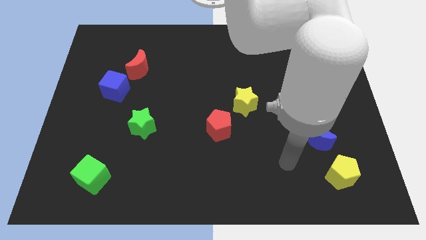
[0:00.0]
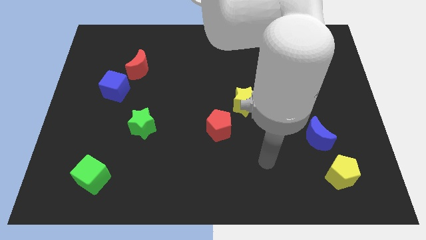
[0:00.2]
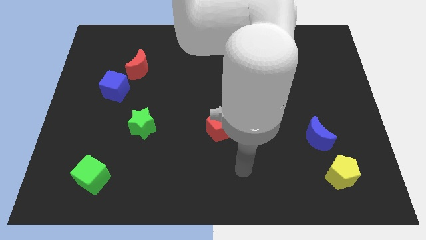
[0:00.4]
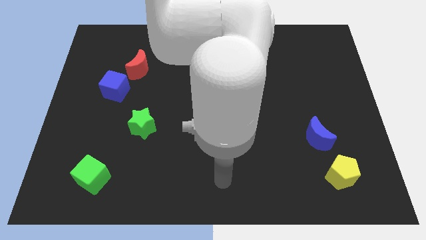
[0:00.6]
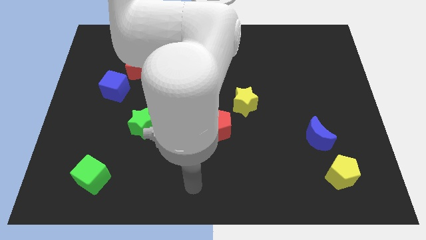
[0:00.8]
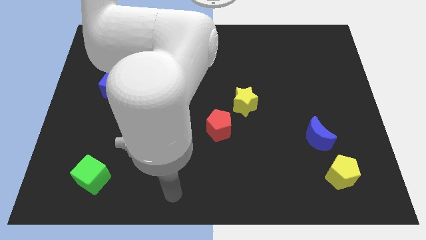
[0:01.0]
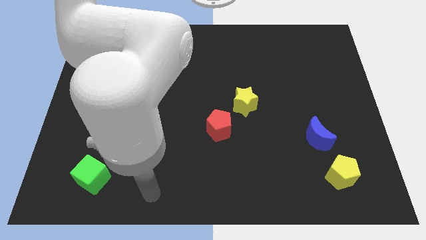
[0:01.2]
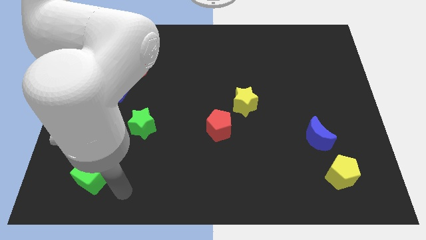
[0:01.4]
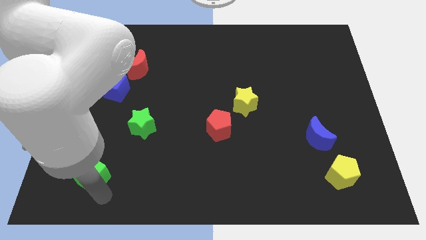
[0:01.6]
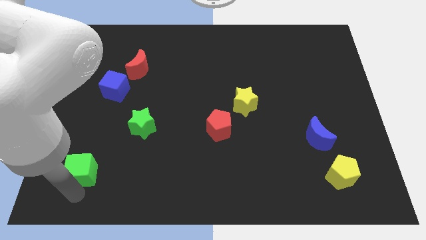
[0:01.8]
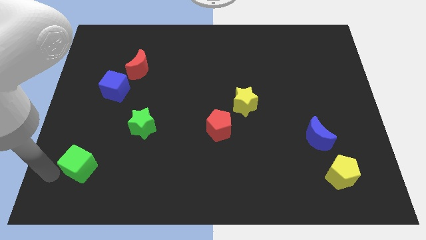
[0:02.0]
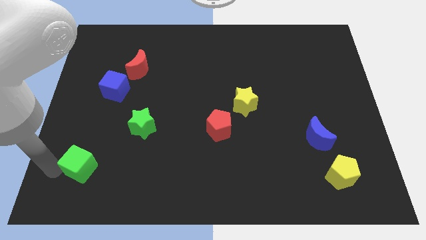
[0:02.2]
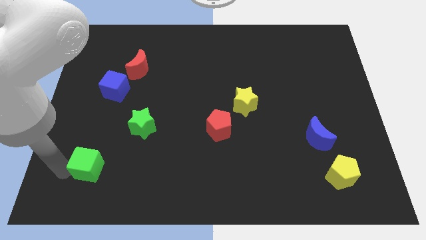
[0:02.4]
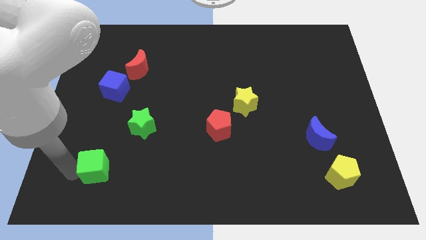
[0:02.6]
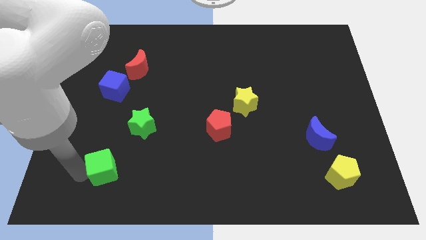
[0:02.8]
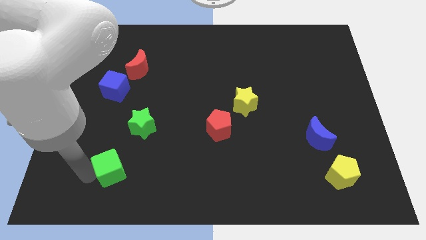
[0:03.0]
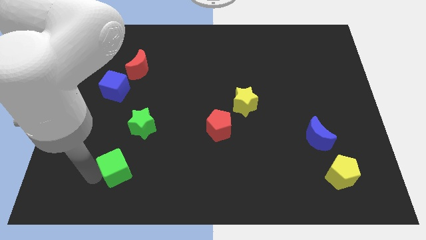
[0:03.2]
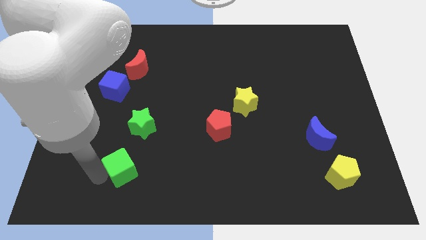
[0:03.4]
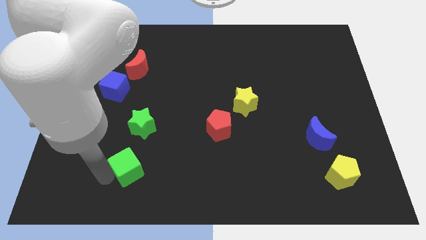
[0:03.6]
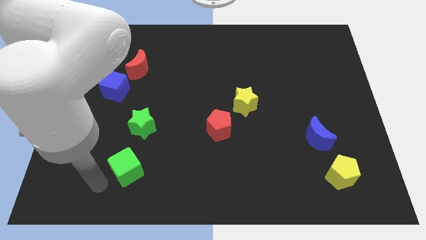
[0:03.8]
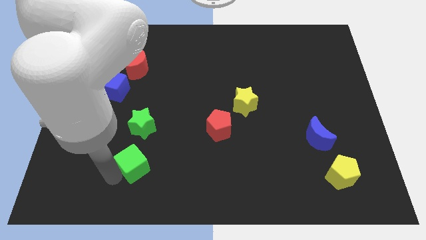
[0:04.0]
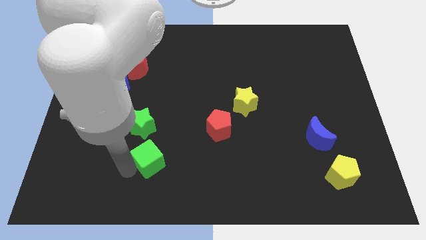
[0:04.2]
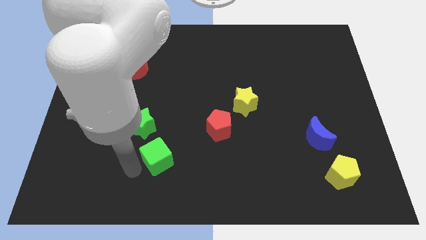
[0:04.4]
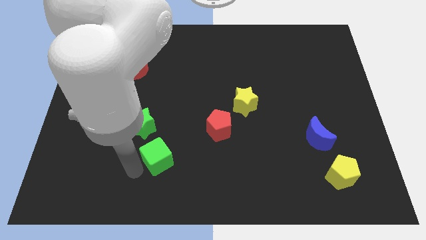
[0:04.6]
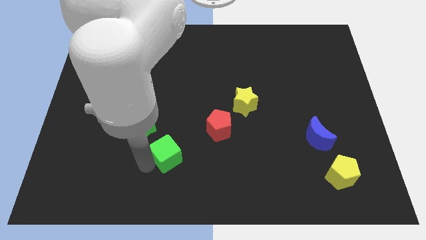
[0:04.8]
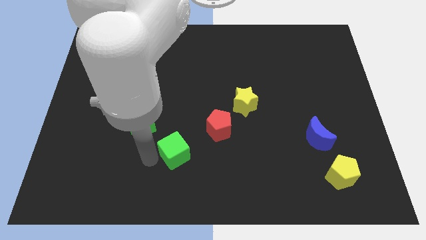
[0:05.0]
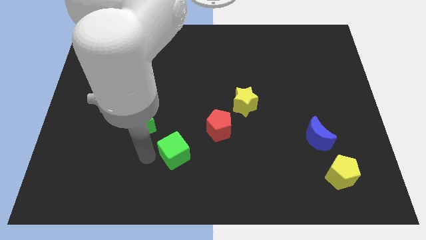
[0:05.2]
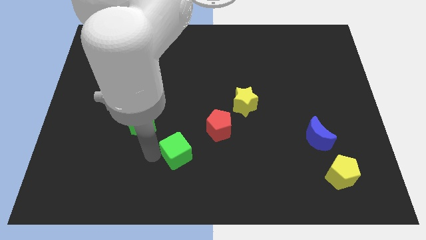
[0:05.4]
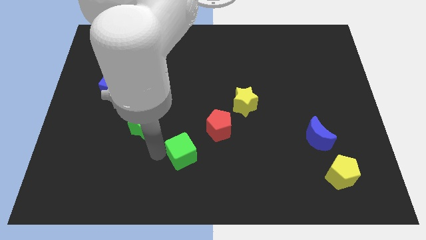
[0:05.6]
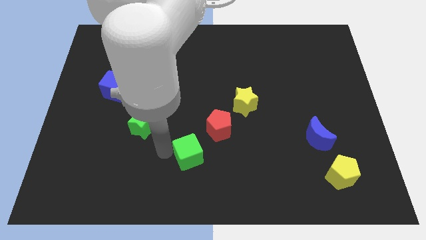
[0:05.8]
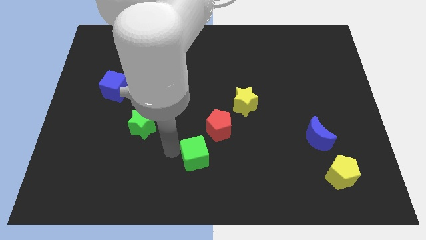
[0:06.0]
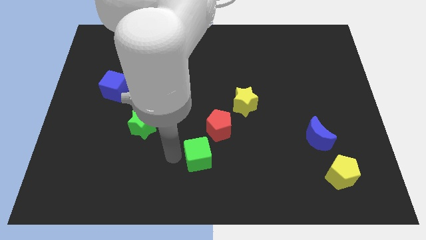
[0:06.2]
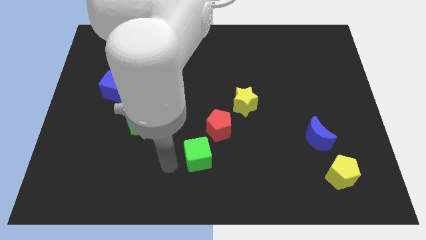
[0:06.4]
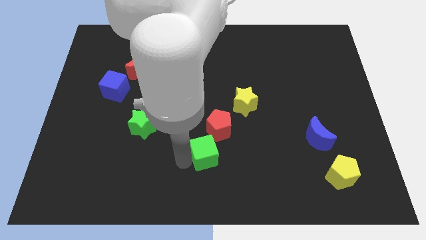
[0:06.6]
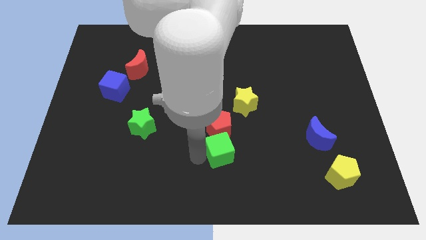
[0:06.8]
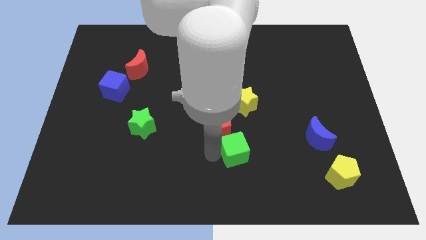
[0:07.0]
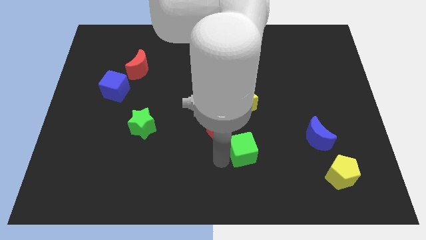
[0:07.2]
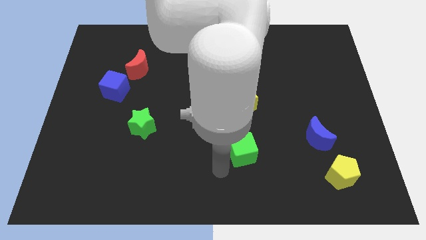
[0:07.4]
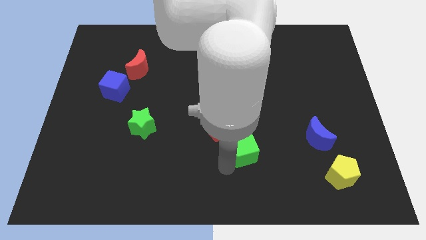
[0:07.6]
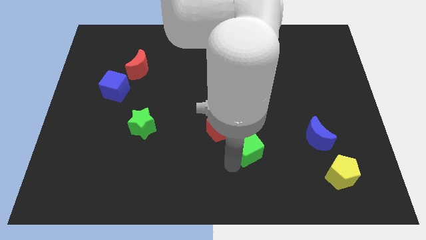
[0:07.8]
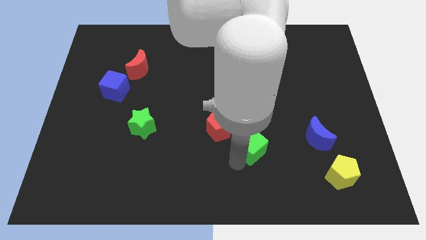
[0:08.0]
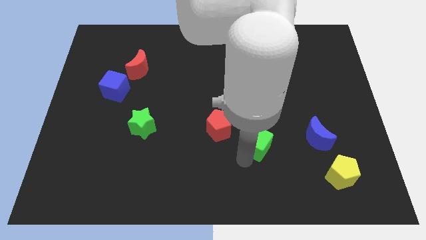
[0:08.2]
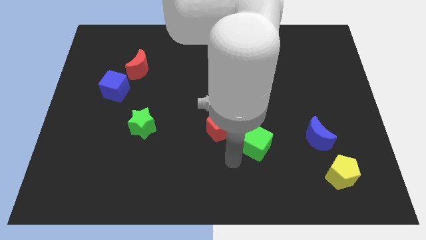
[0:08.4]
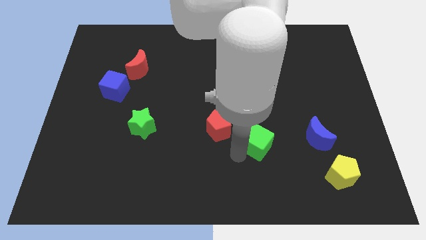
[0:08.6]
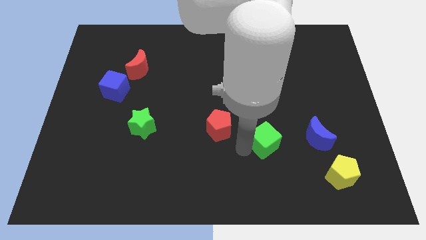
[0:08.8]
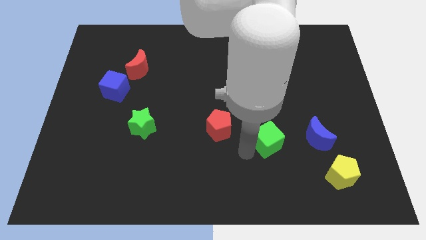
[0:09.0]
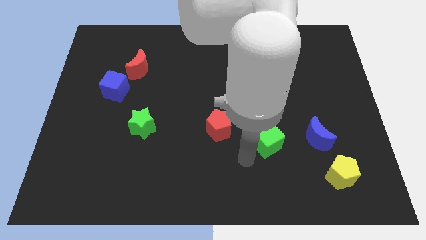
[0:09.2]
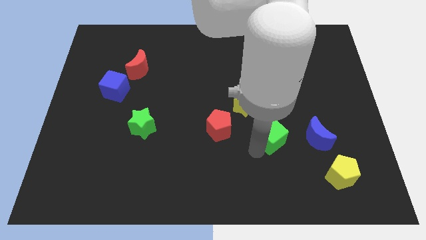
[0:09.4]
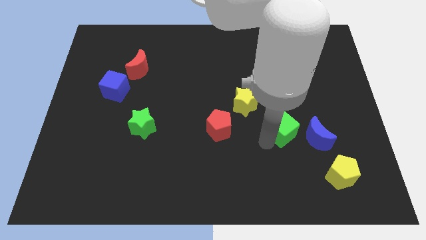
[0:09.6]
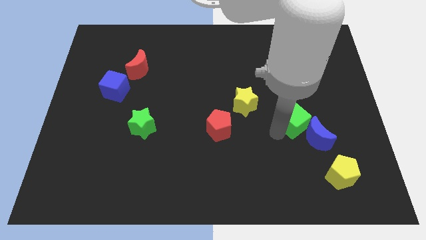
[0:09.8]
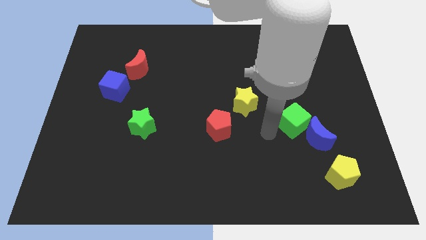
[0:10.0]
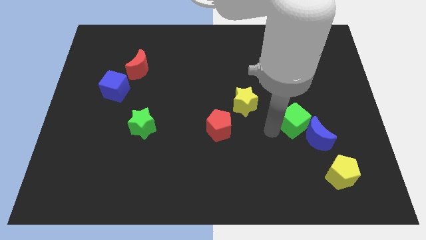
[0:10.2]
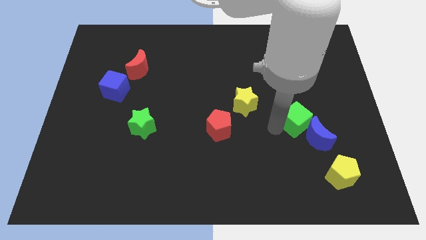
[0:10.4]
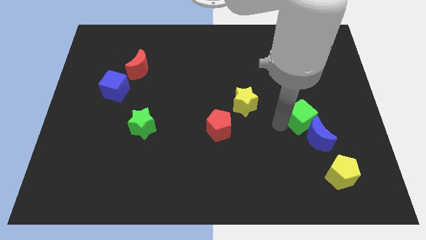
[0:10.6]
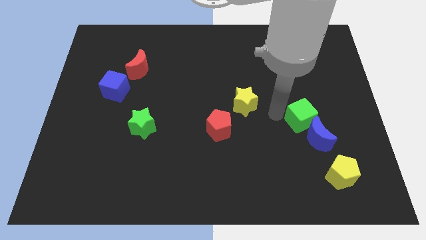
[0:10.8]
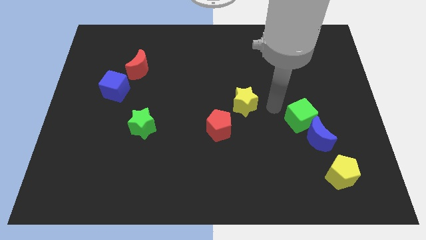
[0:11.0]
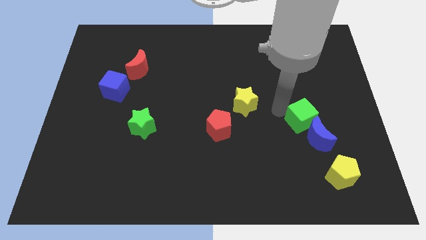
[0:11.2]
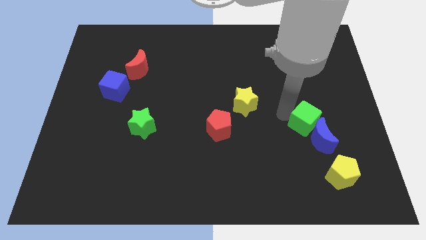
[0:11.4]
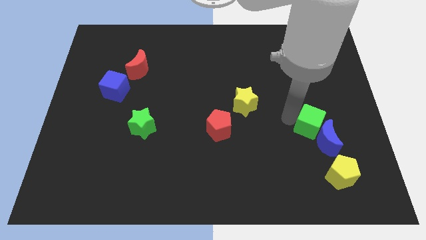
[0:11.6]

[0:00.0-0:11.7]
put the green cube to the top side of the yellow pentagon

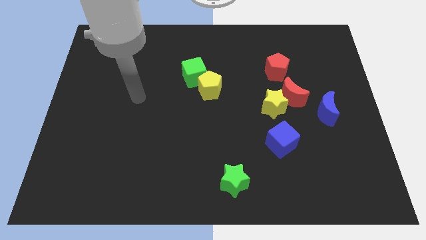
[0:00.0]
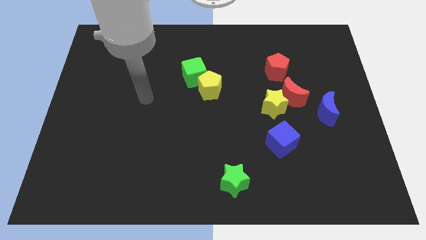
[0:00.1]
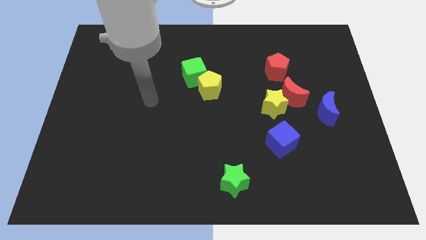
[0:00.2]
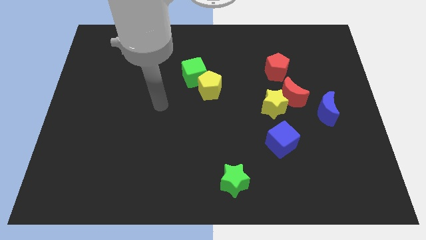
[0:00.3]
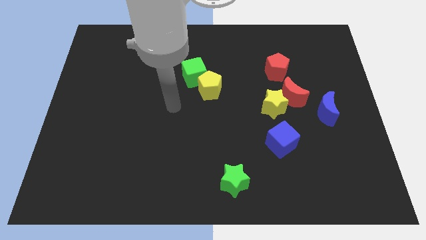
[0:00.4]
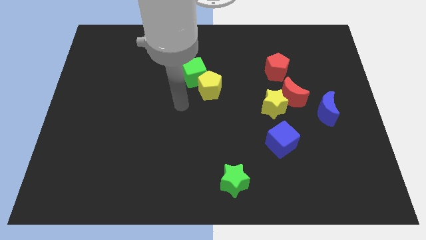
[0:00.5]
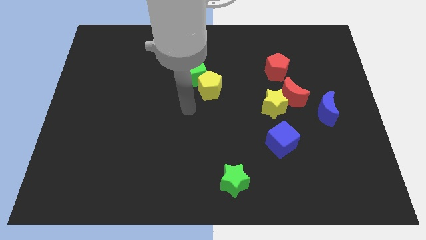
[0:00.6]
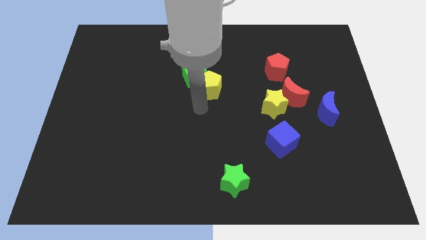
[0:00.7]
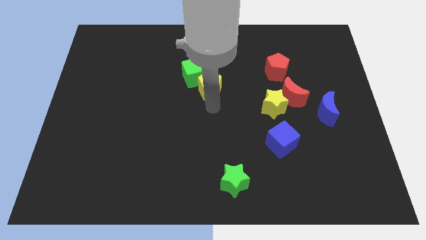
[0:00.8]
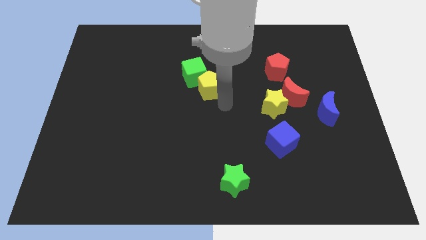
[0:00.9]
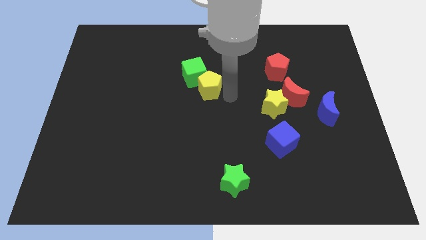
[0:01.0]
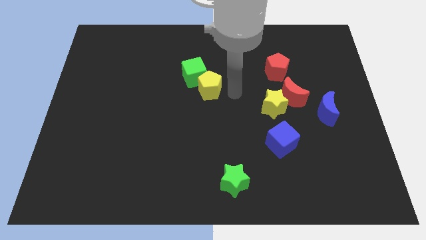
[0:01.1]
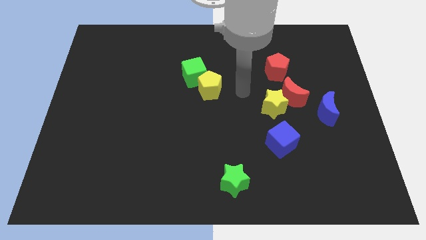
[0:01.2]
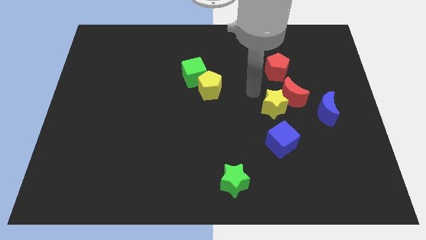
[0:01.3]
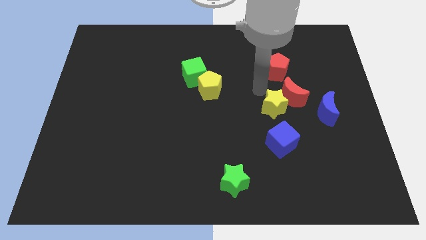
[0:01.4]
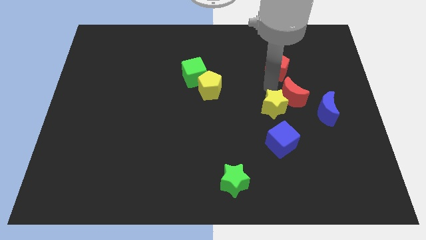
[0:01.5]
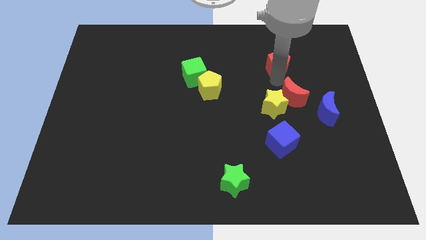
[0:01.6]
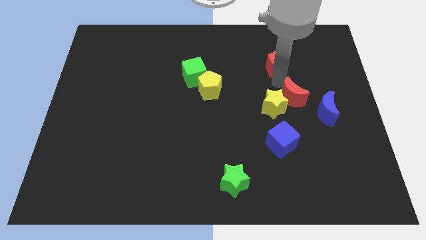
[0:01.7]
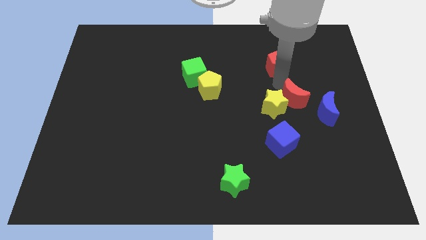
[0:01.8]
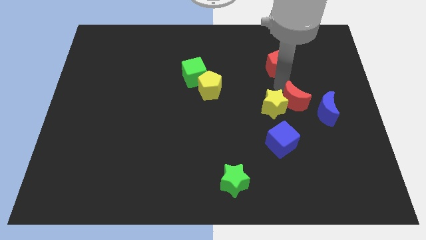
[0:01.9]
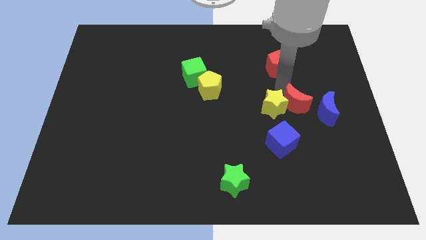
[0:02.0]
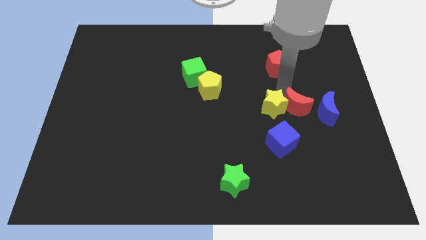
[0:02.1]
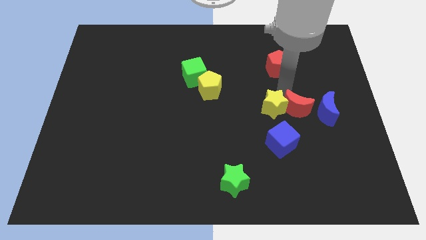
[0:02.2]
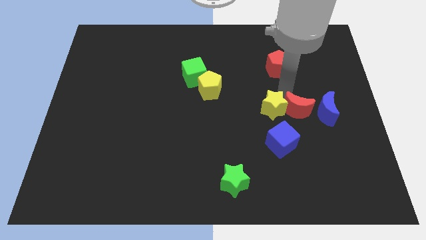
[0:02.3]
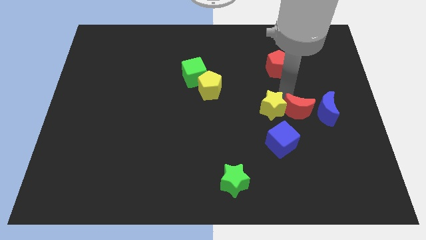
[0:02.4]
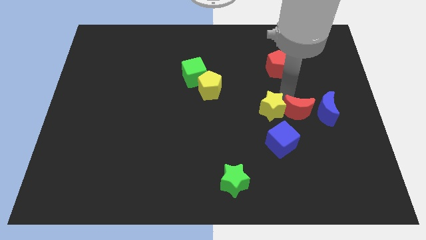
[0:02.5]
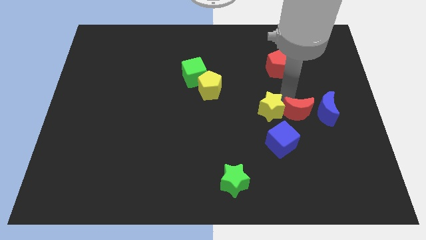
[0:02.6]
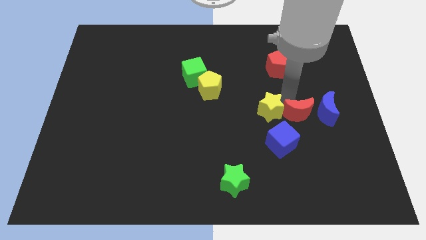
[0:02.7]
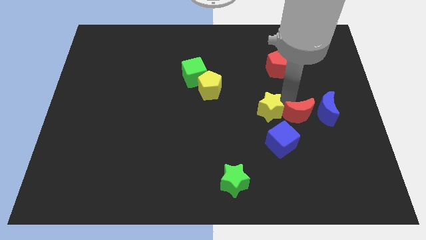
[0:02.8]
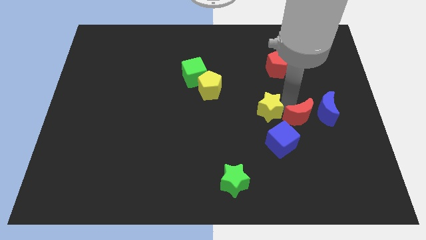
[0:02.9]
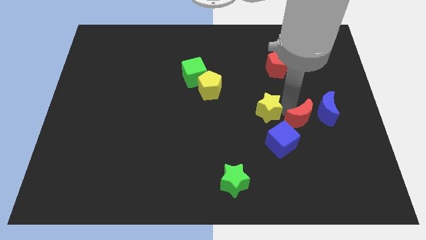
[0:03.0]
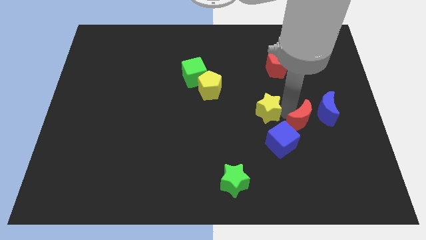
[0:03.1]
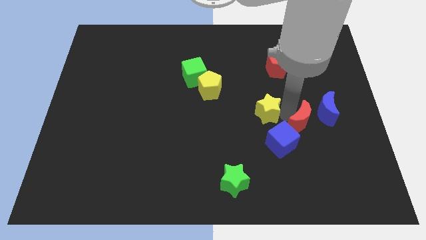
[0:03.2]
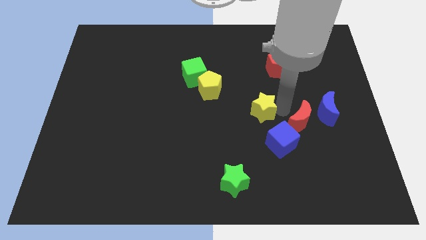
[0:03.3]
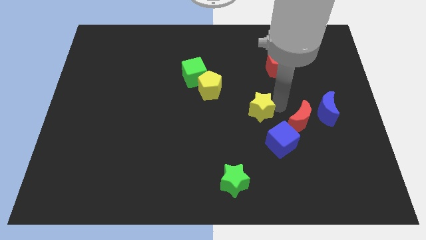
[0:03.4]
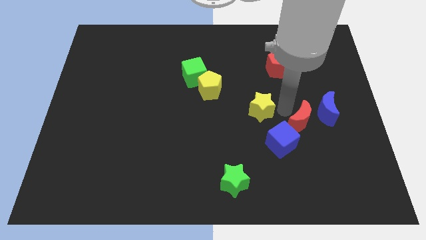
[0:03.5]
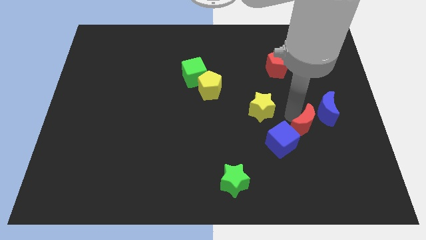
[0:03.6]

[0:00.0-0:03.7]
put the red moon just right of the blue cube
